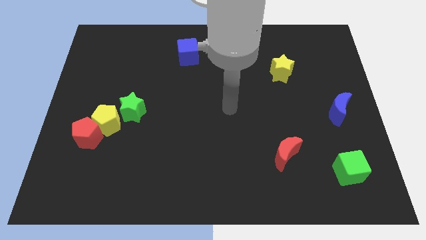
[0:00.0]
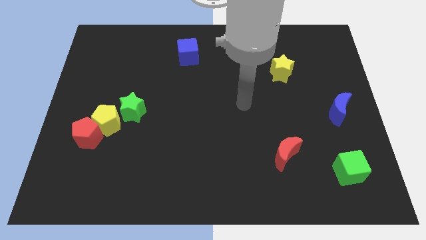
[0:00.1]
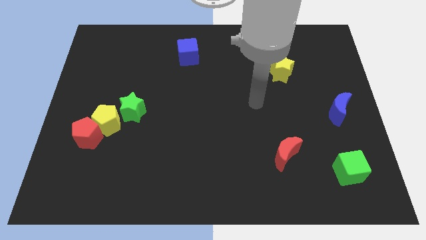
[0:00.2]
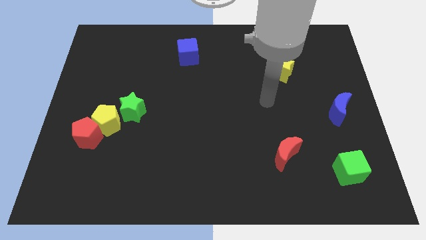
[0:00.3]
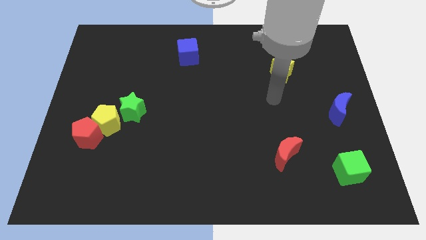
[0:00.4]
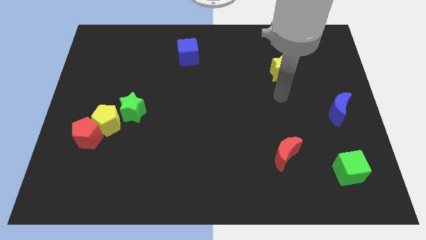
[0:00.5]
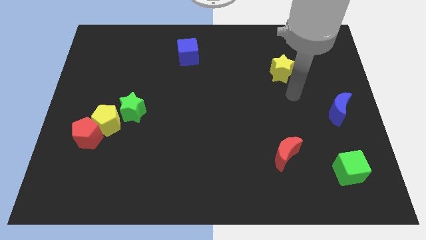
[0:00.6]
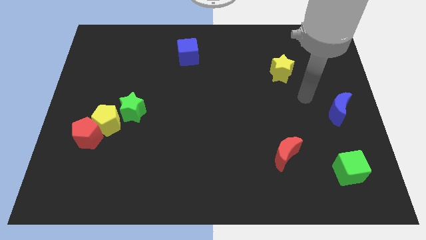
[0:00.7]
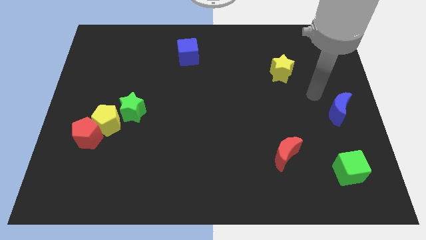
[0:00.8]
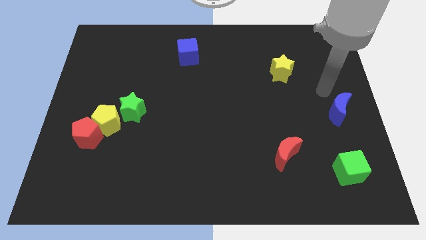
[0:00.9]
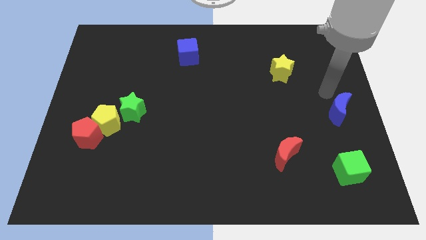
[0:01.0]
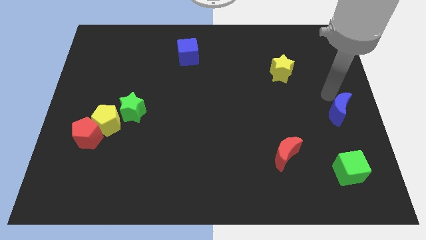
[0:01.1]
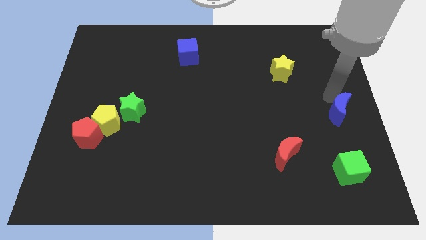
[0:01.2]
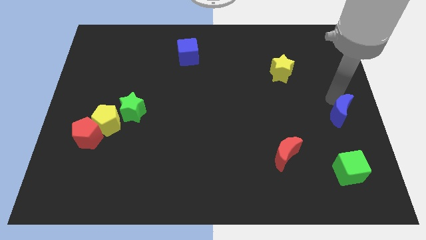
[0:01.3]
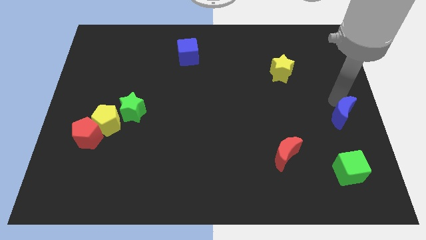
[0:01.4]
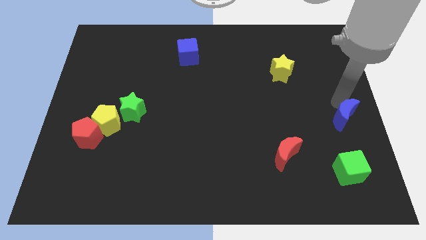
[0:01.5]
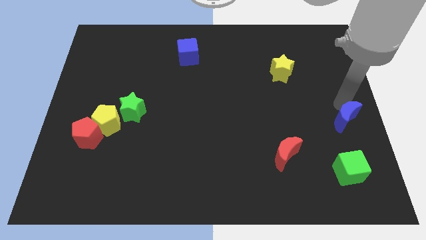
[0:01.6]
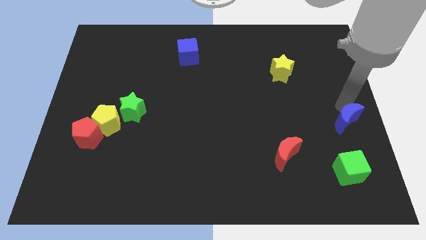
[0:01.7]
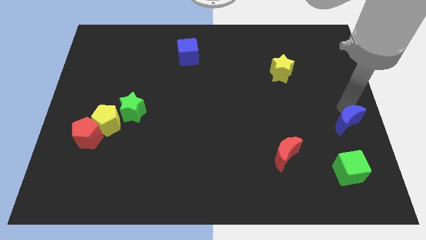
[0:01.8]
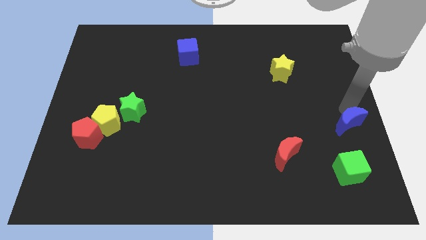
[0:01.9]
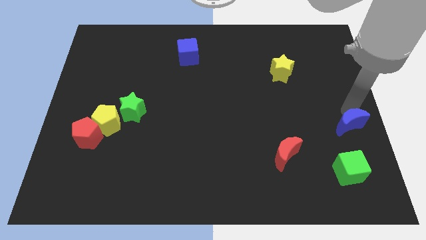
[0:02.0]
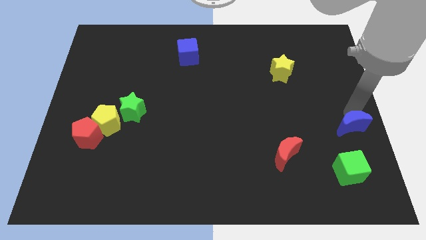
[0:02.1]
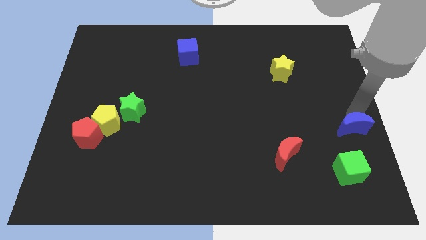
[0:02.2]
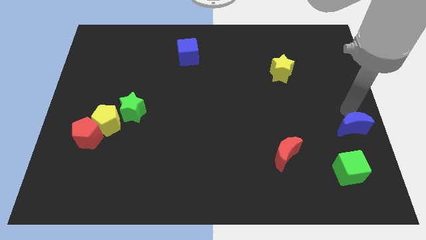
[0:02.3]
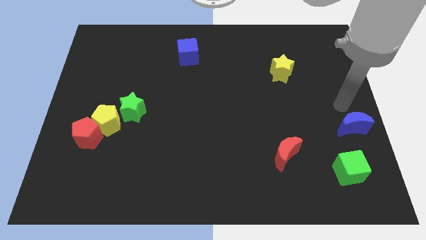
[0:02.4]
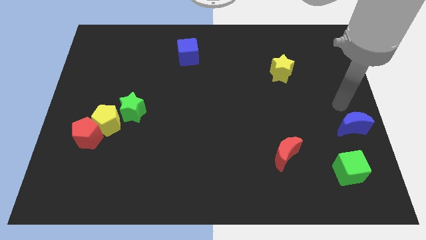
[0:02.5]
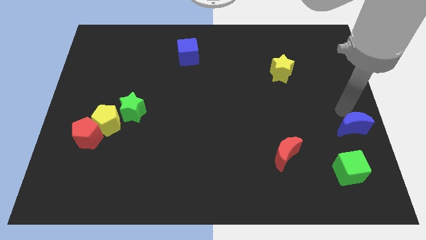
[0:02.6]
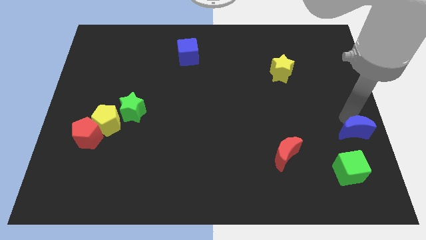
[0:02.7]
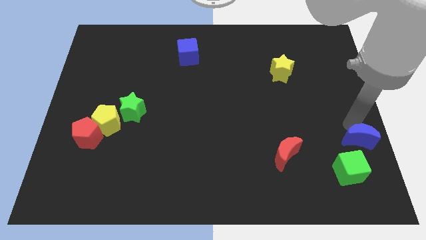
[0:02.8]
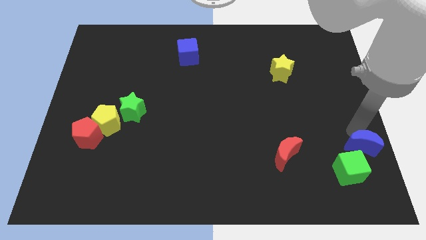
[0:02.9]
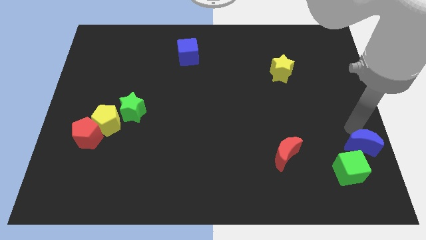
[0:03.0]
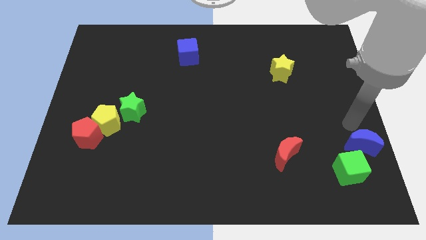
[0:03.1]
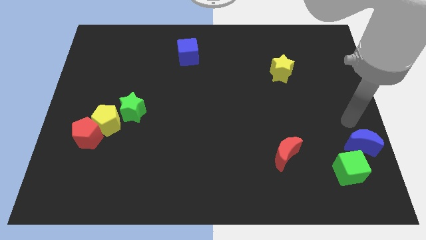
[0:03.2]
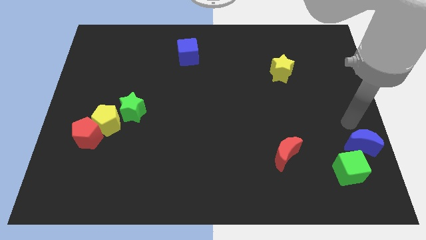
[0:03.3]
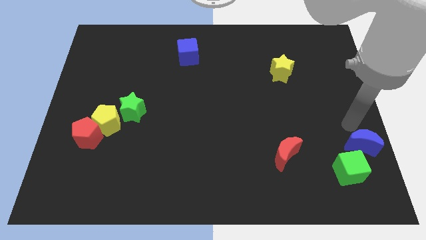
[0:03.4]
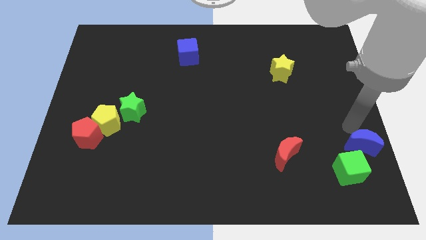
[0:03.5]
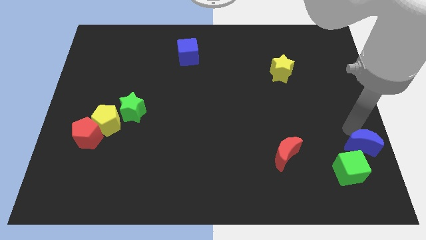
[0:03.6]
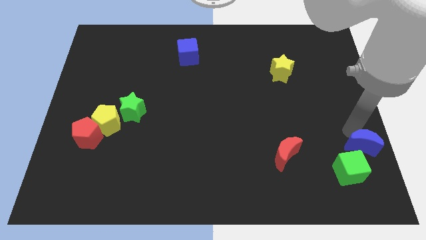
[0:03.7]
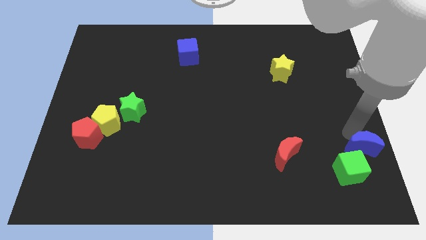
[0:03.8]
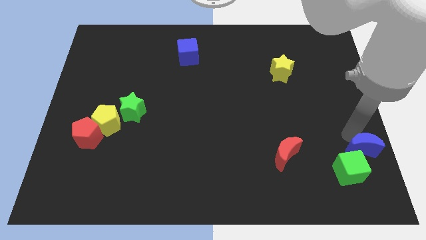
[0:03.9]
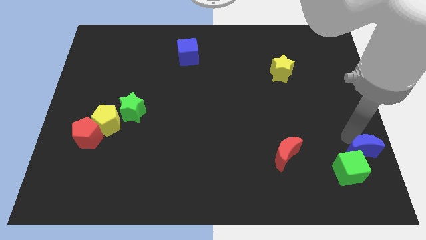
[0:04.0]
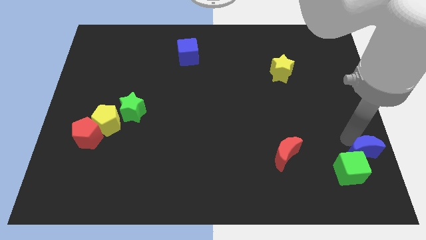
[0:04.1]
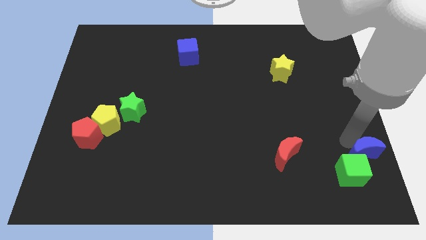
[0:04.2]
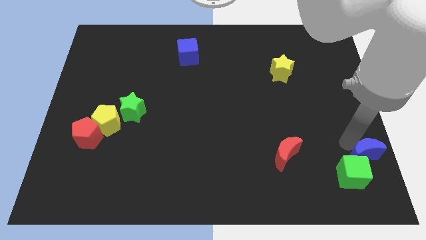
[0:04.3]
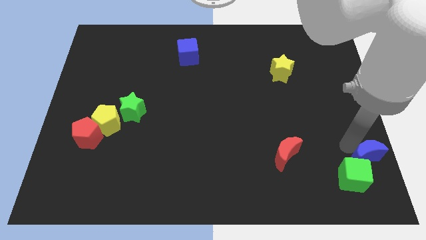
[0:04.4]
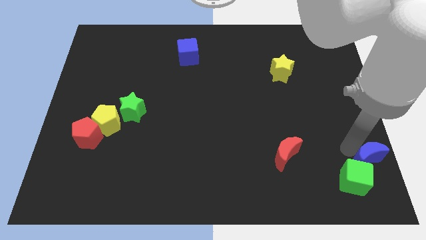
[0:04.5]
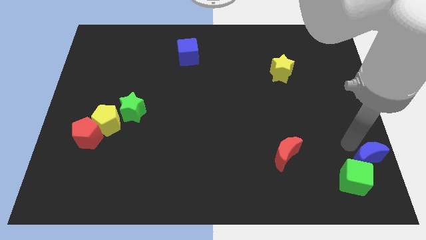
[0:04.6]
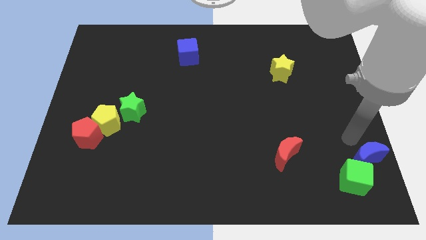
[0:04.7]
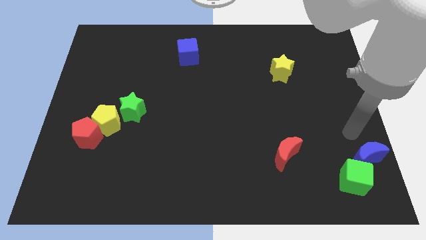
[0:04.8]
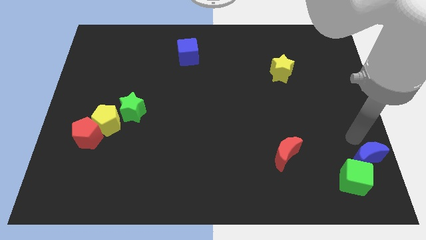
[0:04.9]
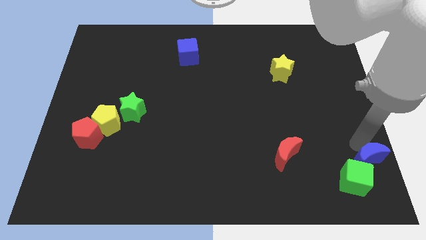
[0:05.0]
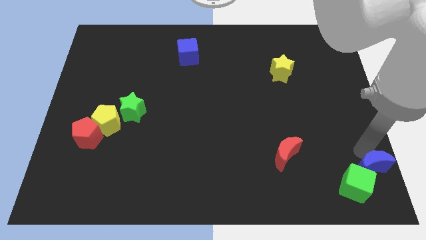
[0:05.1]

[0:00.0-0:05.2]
move the blue moon to the lower right corner
